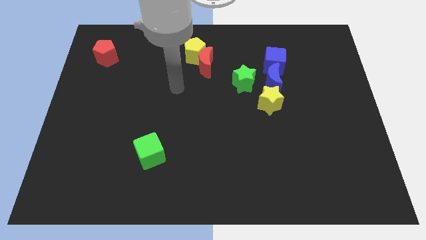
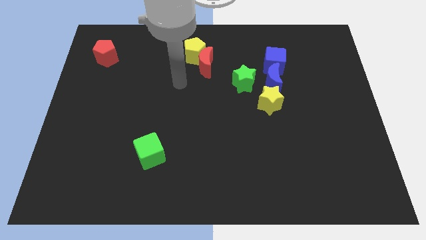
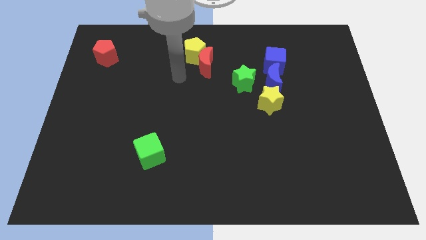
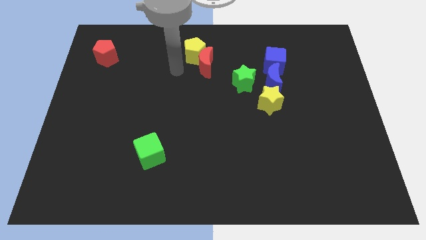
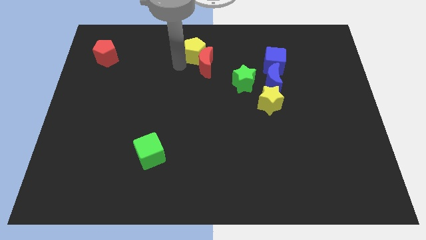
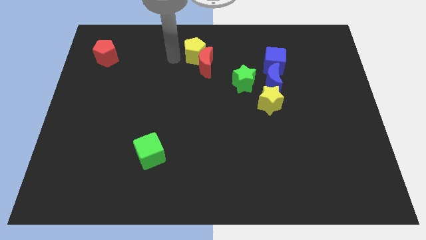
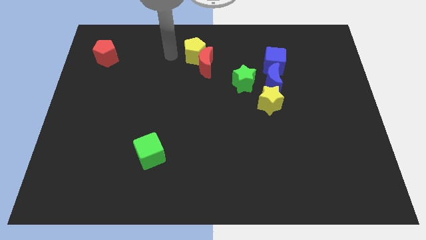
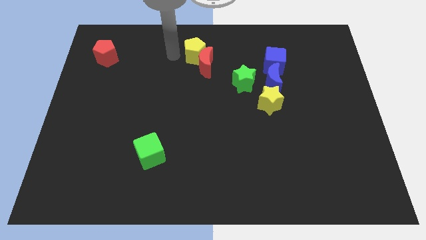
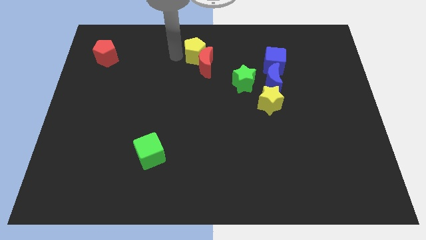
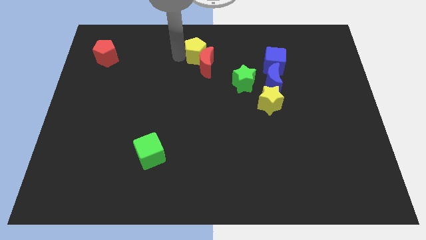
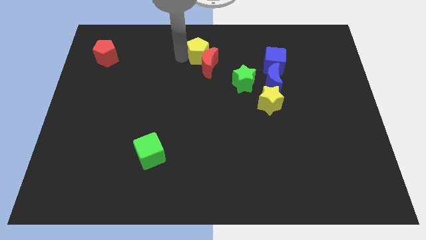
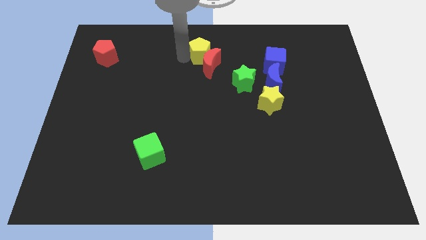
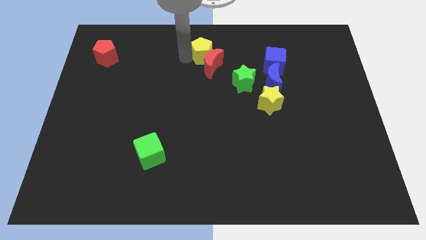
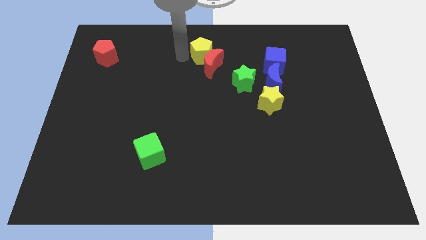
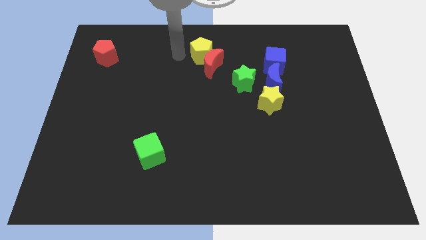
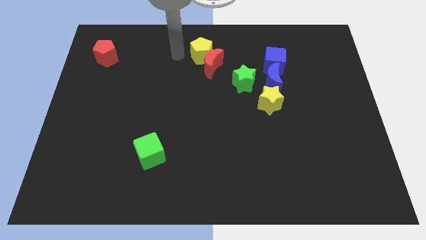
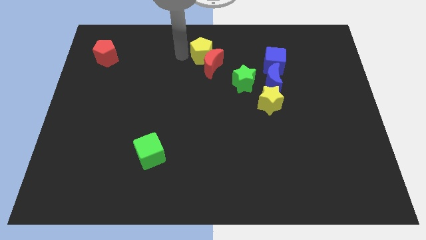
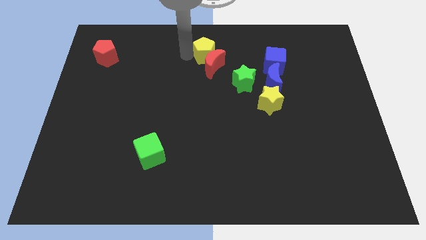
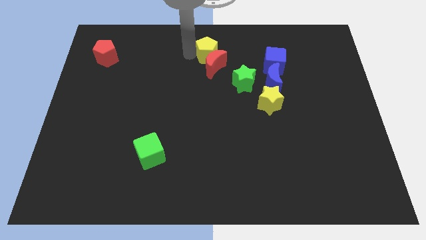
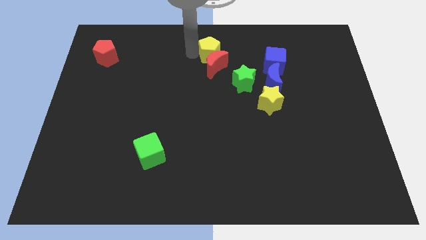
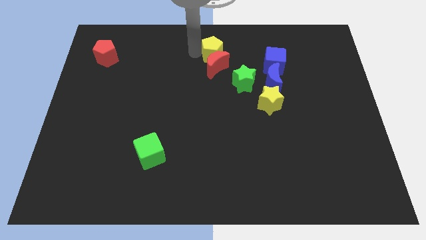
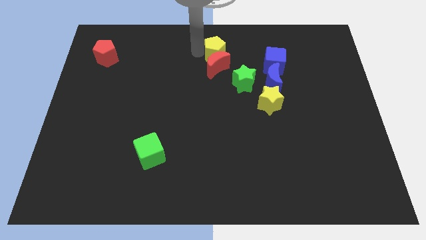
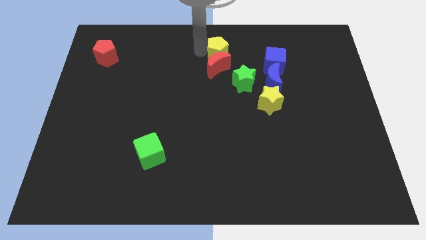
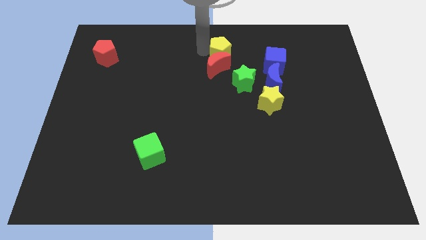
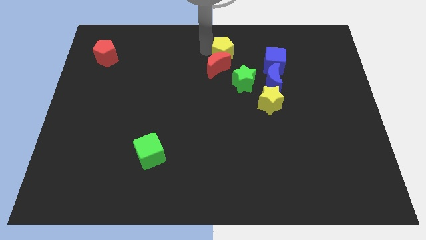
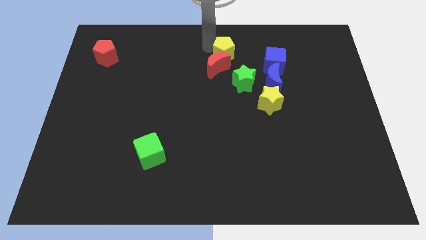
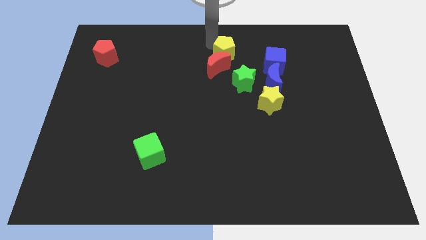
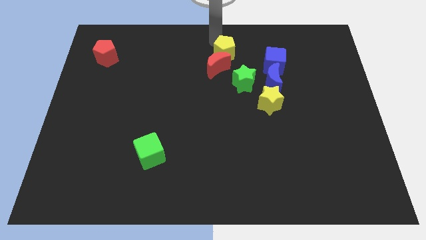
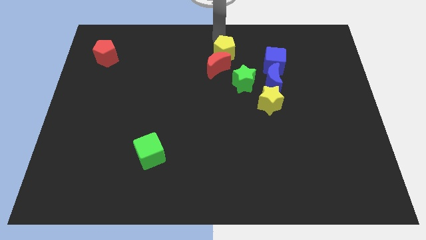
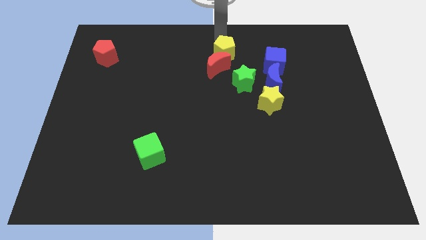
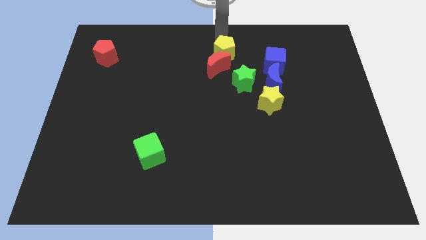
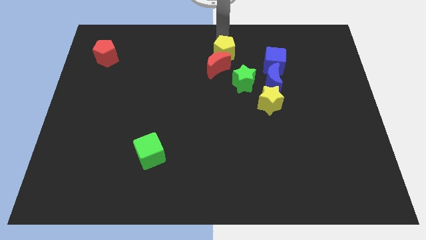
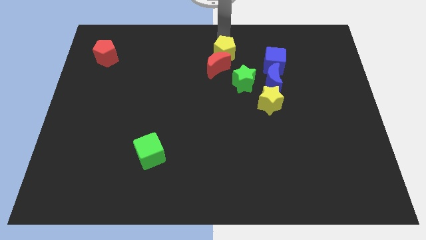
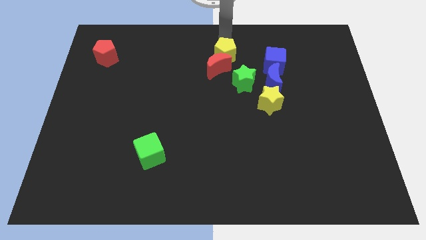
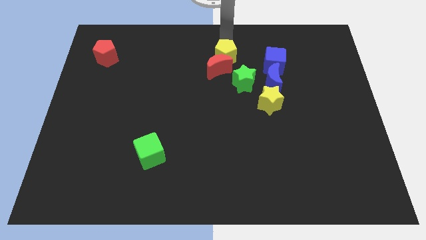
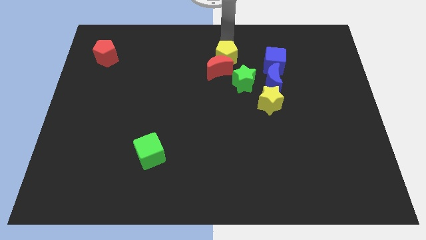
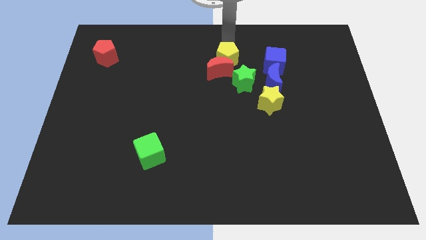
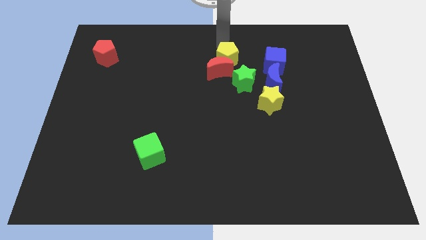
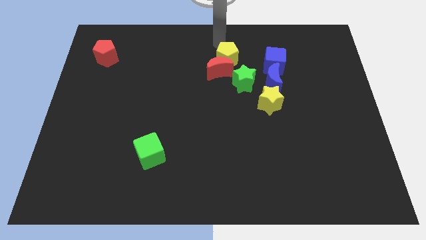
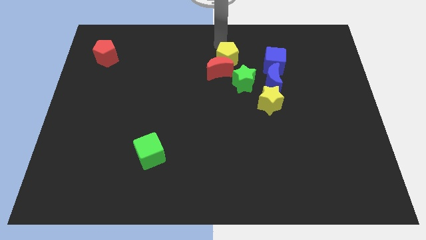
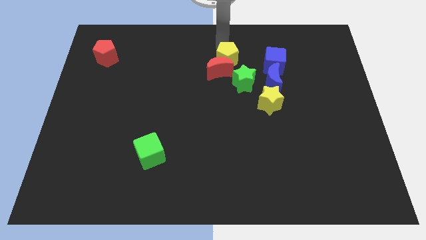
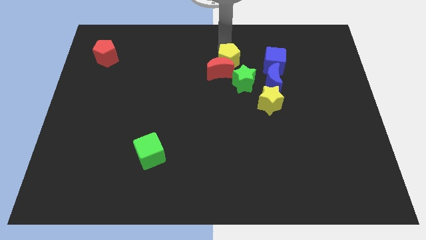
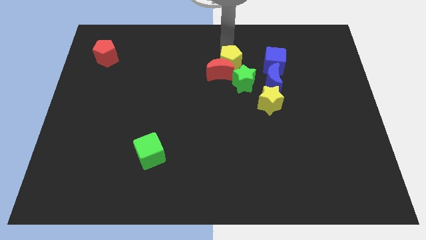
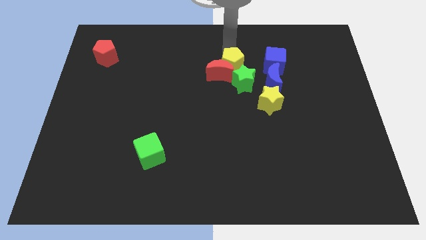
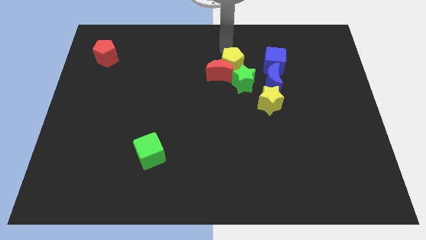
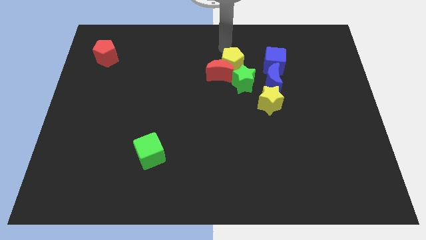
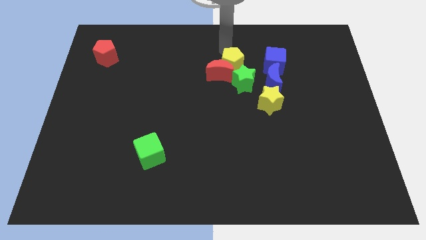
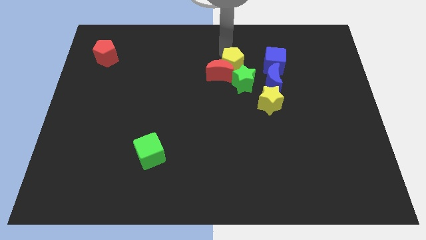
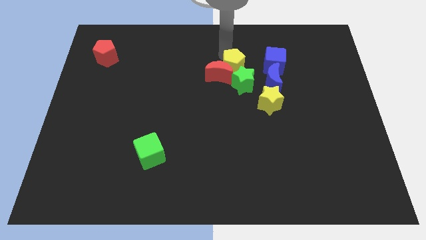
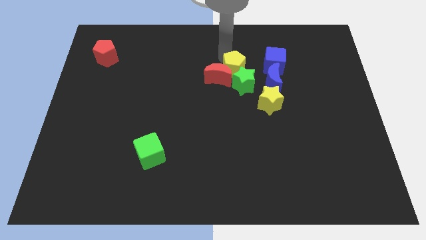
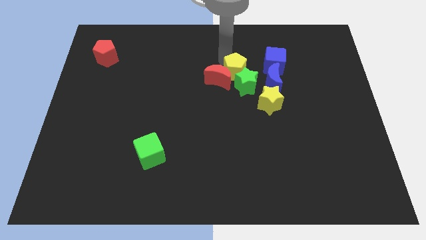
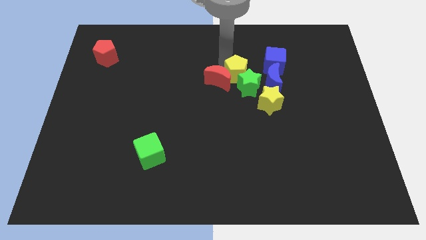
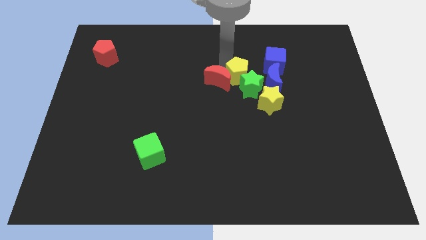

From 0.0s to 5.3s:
push the yellow pentagon to the bottom right of the red moon

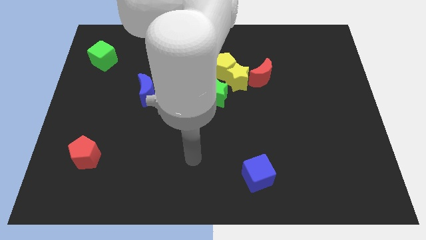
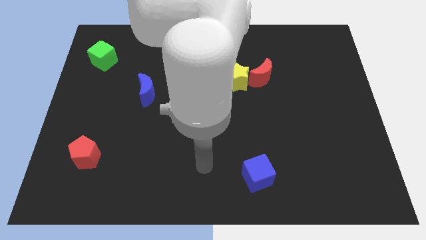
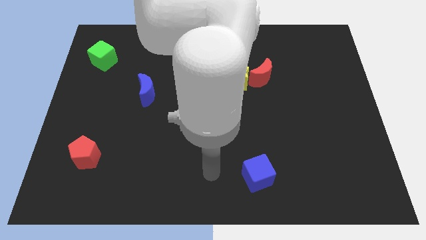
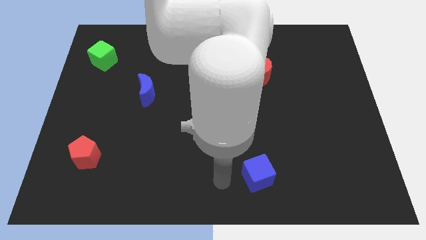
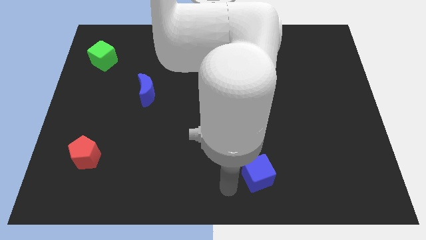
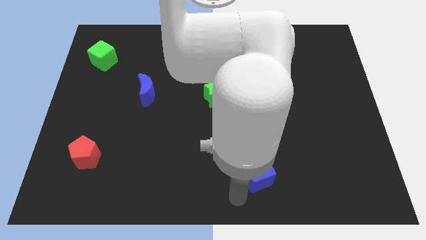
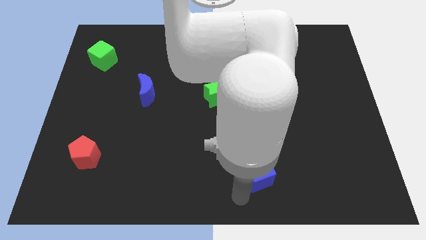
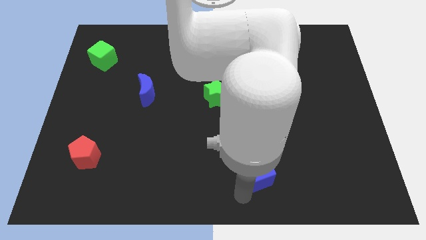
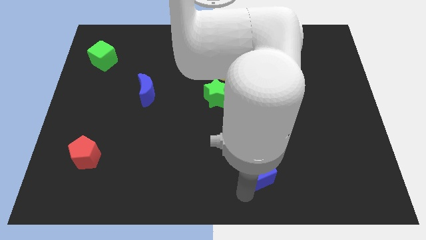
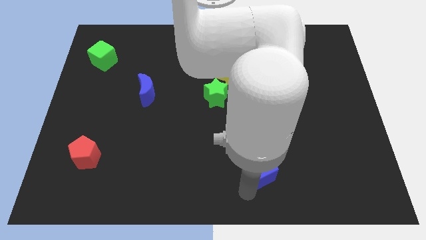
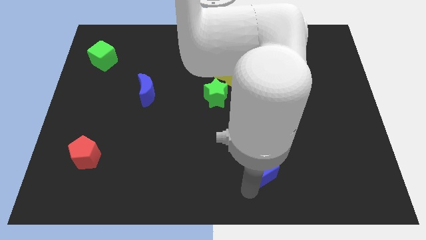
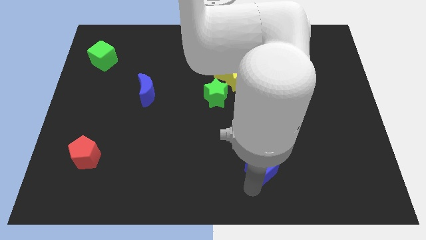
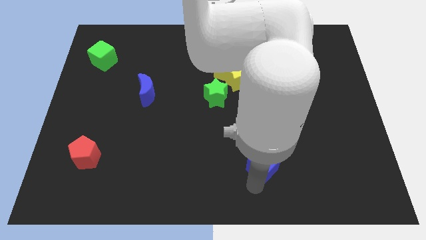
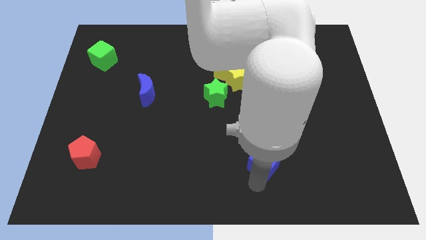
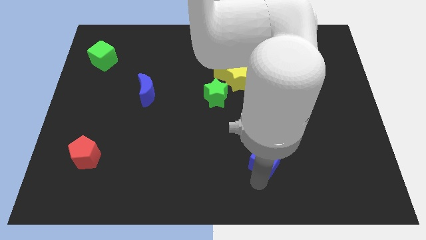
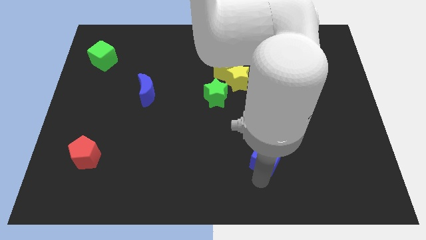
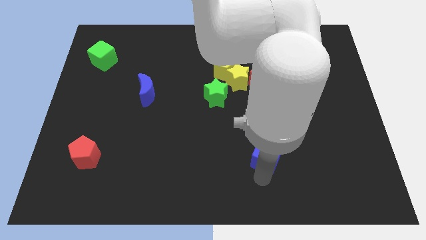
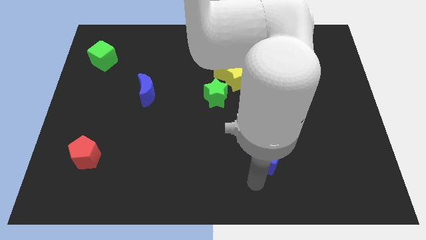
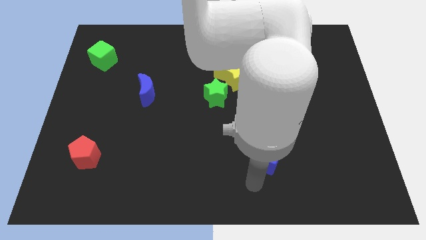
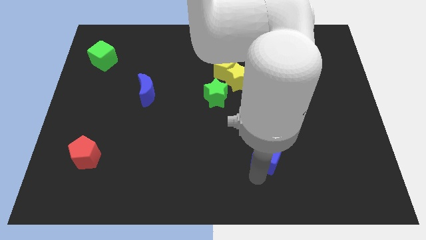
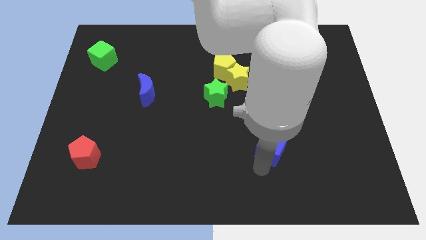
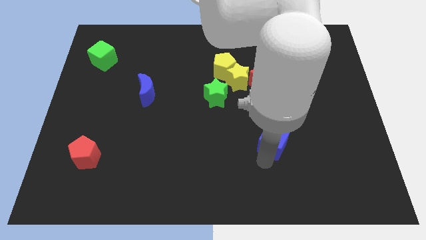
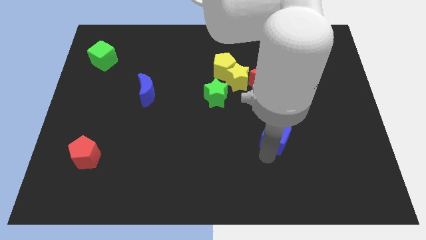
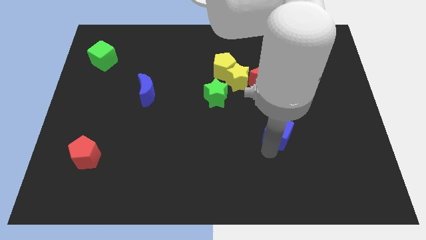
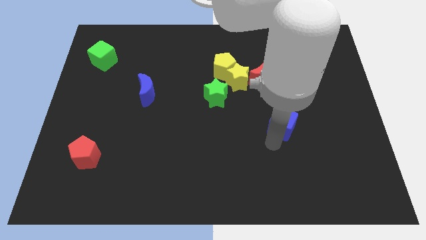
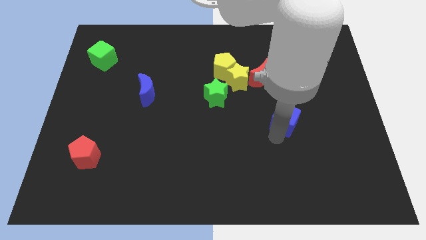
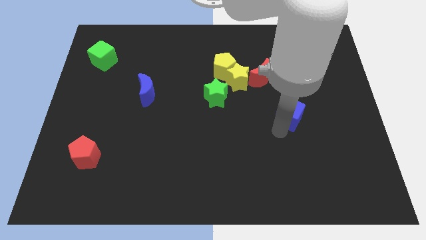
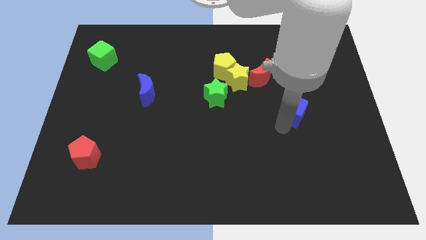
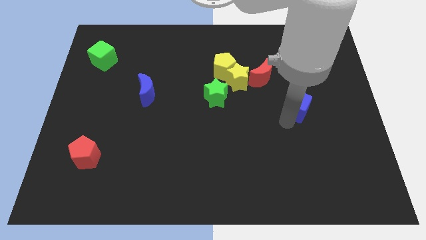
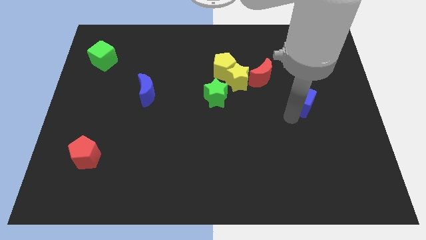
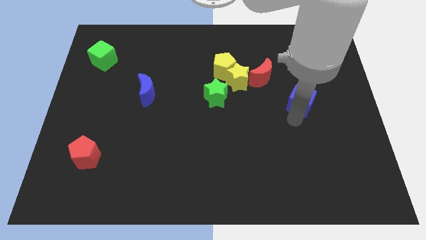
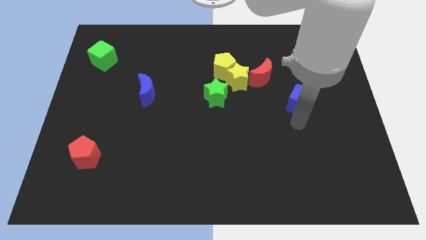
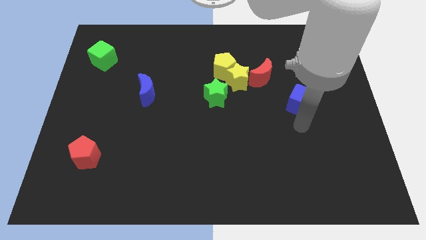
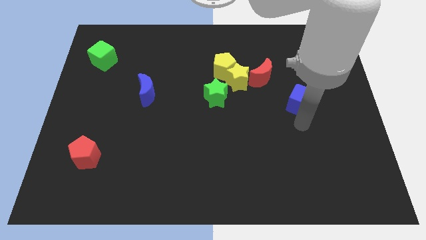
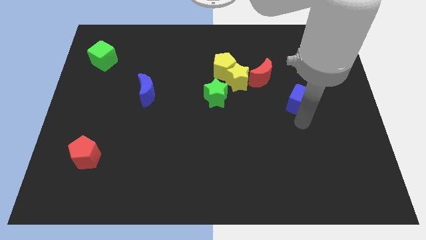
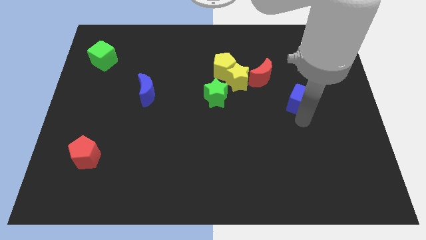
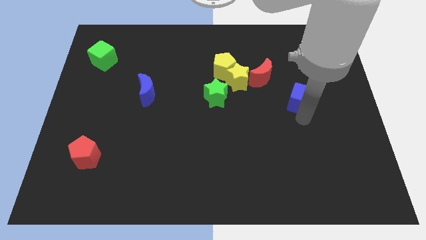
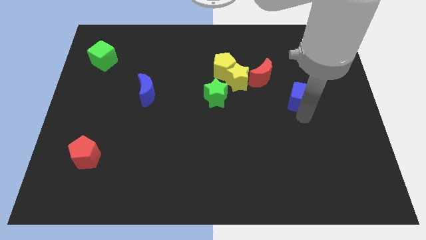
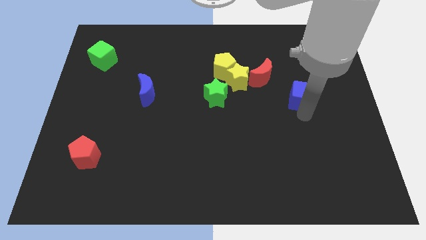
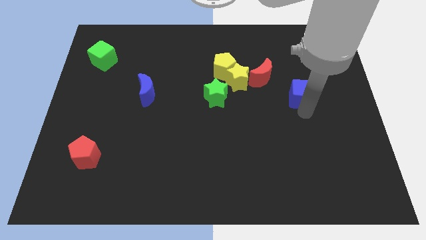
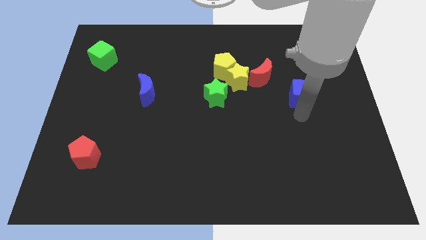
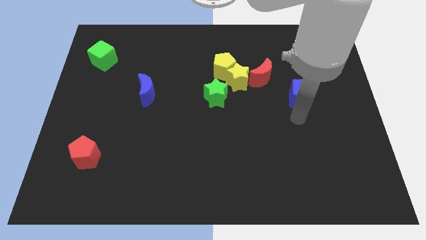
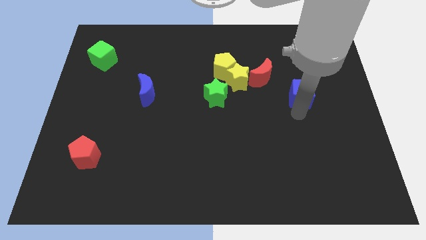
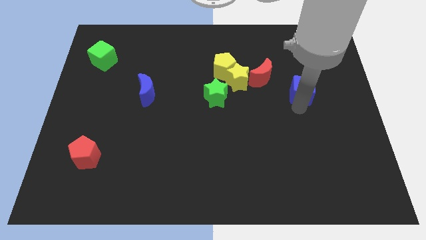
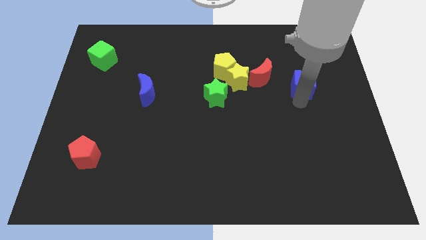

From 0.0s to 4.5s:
push the blue cube to the right of the red moon
